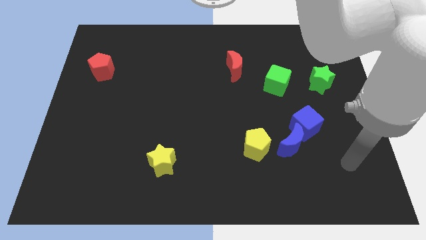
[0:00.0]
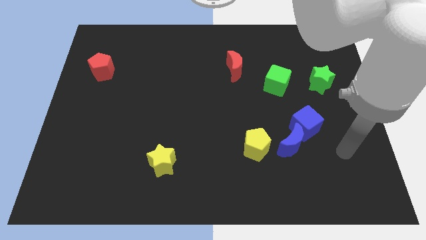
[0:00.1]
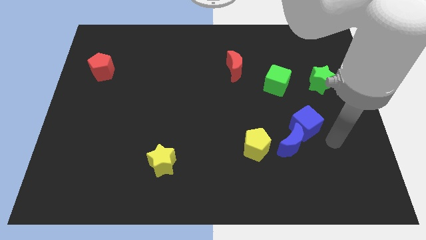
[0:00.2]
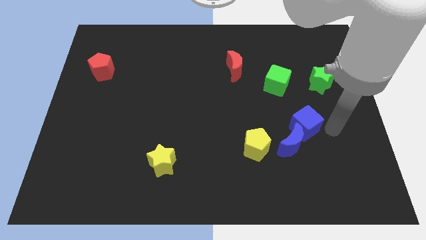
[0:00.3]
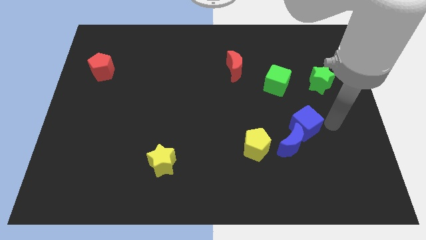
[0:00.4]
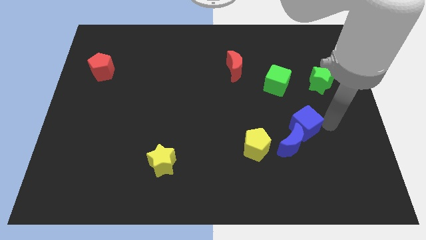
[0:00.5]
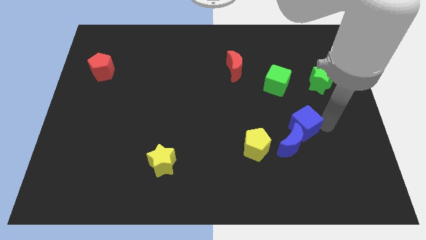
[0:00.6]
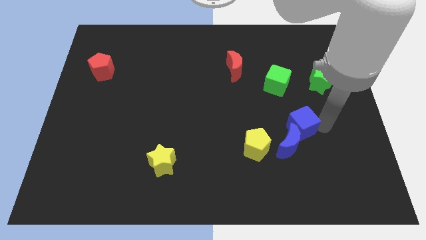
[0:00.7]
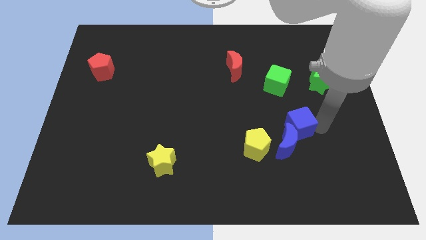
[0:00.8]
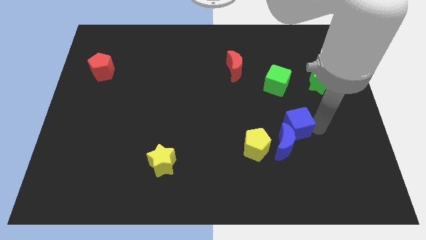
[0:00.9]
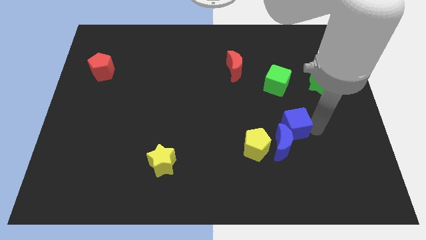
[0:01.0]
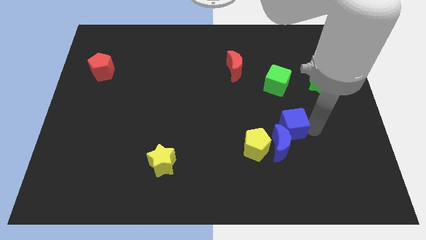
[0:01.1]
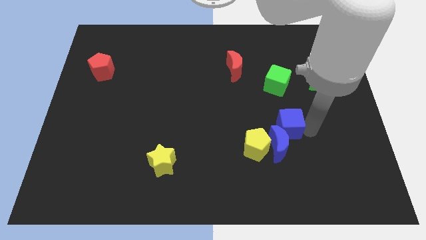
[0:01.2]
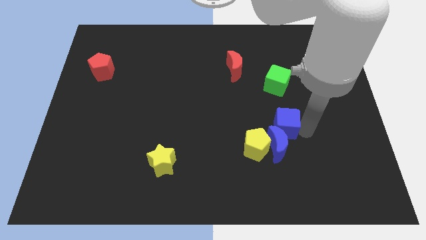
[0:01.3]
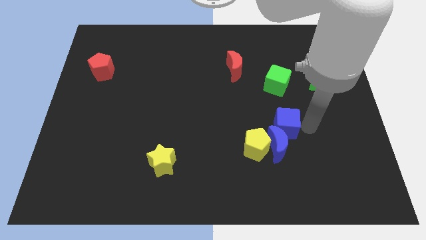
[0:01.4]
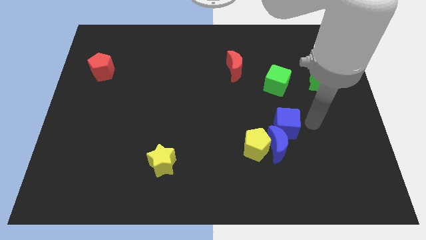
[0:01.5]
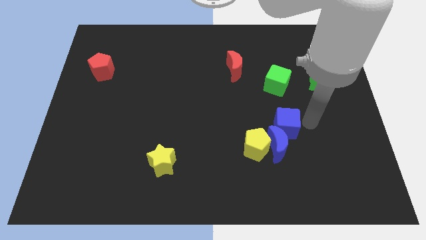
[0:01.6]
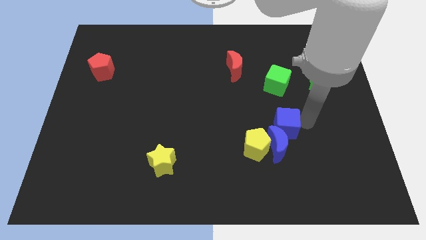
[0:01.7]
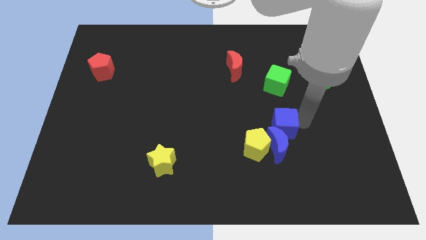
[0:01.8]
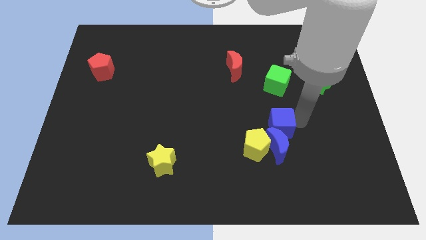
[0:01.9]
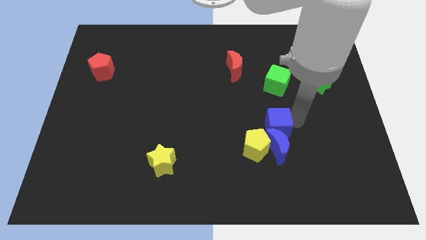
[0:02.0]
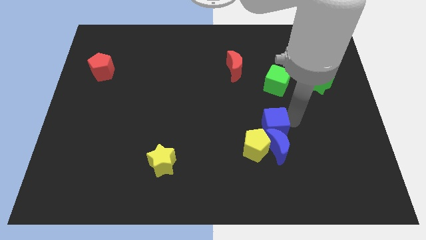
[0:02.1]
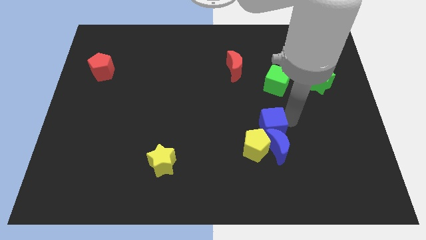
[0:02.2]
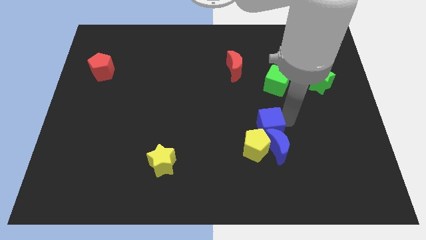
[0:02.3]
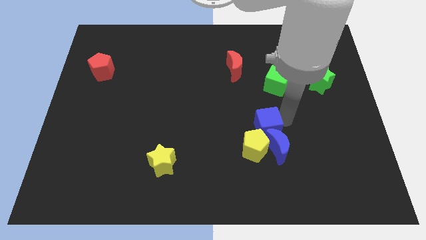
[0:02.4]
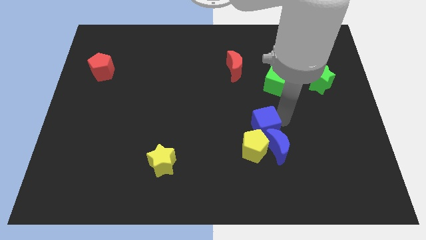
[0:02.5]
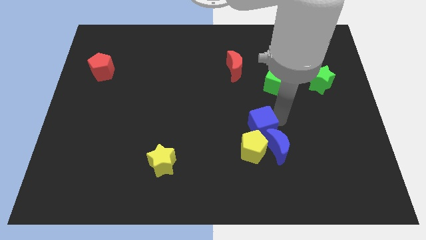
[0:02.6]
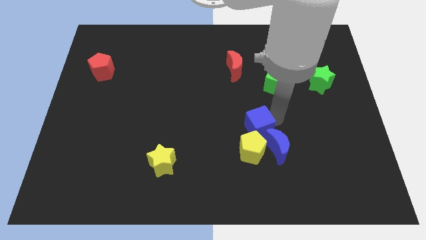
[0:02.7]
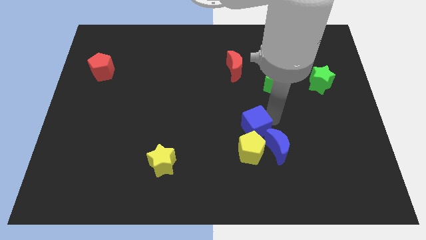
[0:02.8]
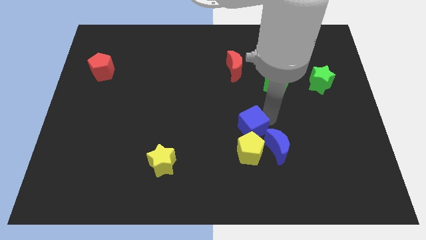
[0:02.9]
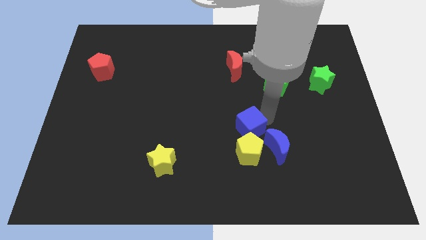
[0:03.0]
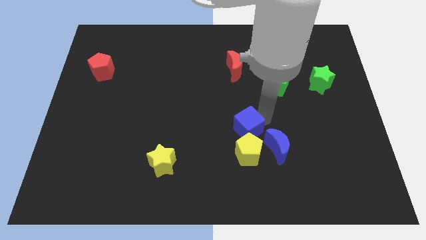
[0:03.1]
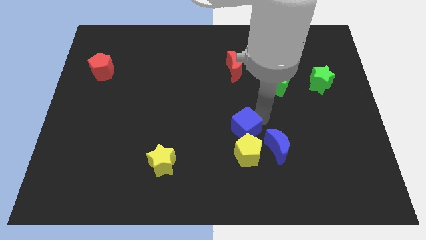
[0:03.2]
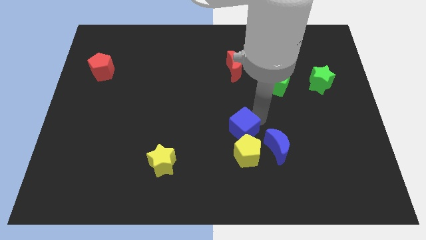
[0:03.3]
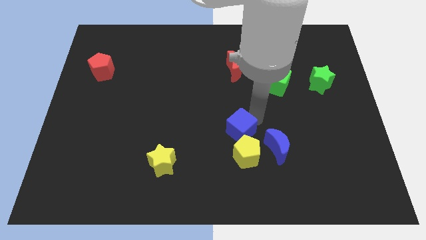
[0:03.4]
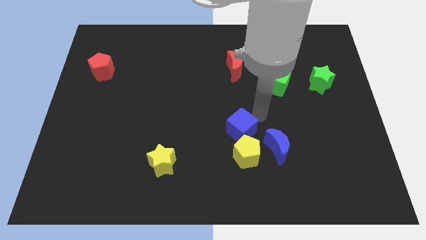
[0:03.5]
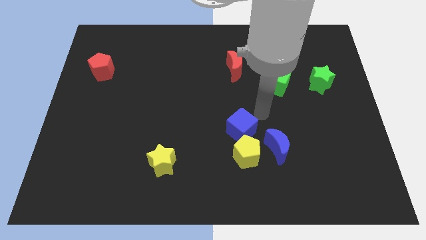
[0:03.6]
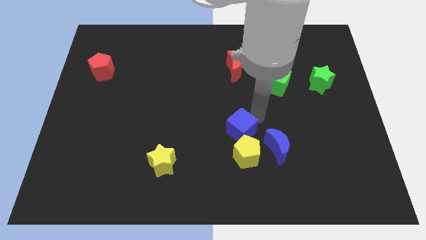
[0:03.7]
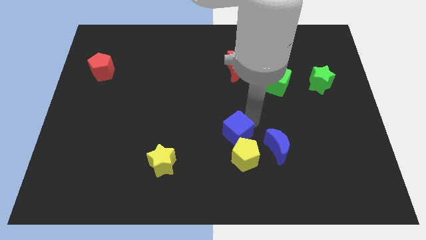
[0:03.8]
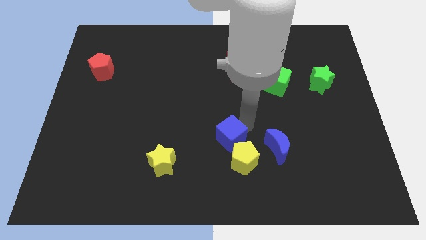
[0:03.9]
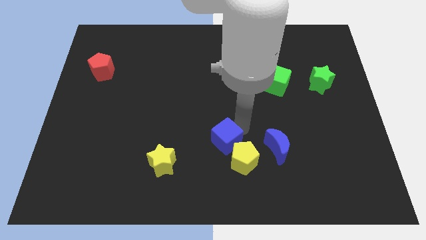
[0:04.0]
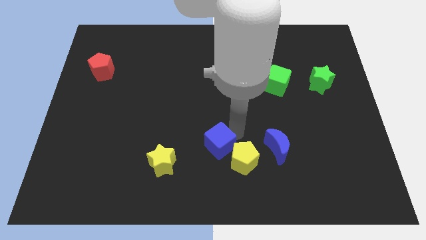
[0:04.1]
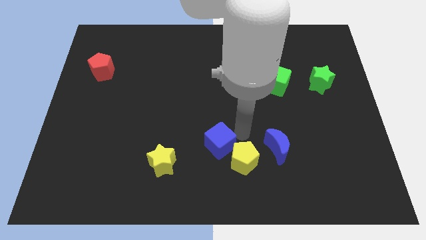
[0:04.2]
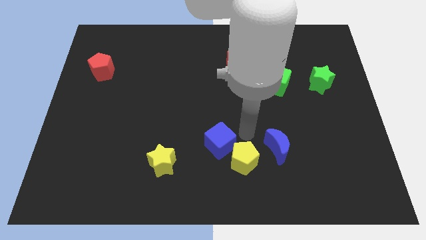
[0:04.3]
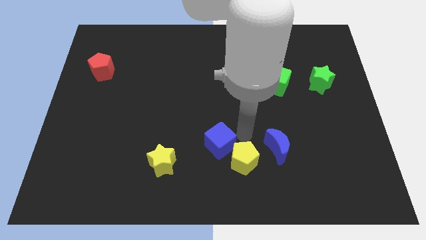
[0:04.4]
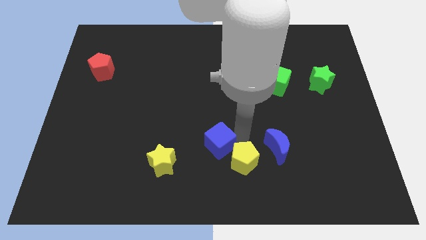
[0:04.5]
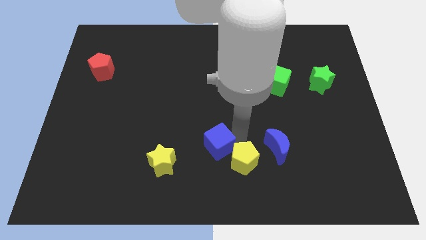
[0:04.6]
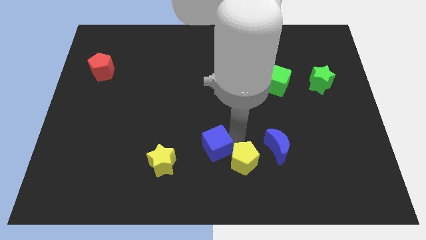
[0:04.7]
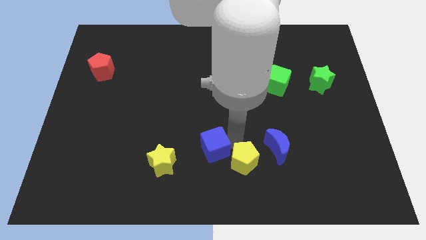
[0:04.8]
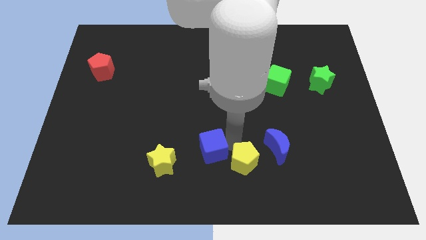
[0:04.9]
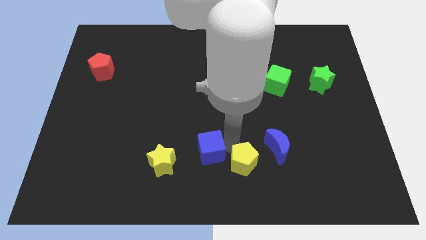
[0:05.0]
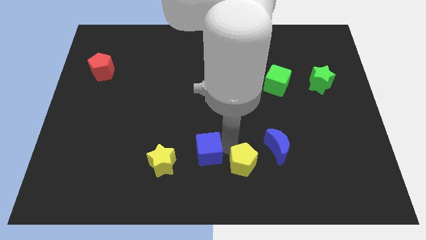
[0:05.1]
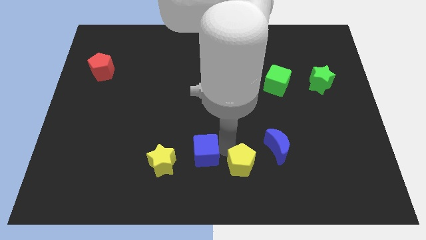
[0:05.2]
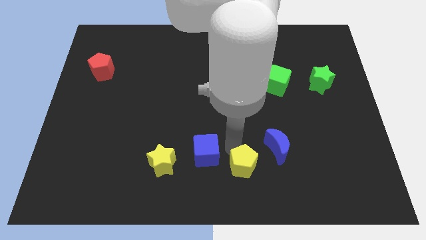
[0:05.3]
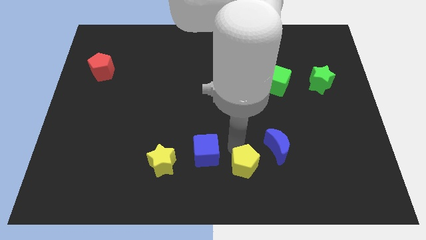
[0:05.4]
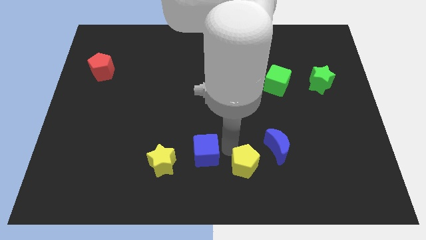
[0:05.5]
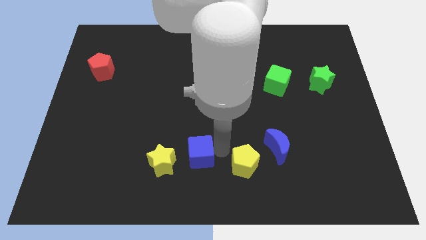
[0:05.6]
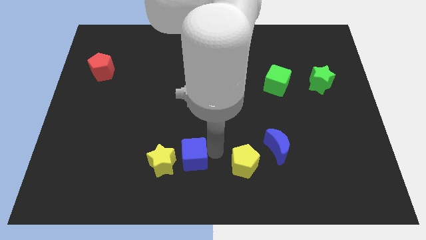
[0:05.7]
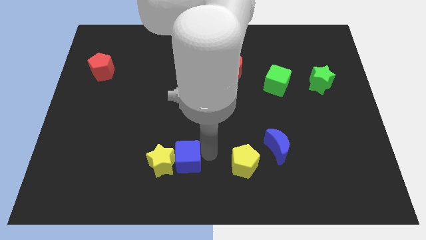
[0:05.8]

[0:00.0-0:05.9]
slide the blue cube towards the yellow star

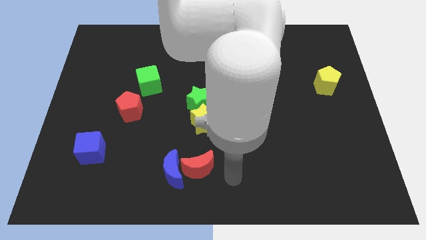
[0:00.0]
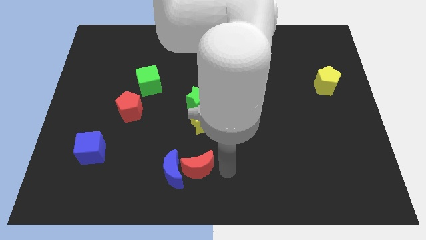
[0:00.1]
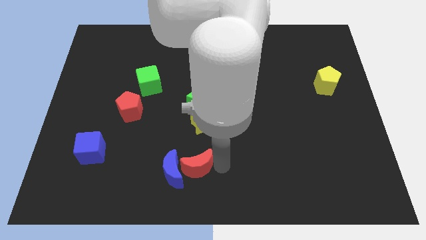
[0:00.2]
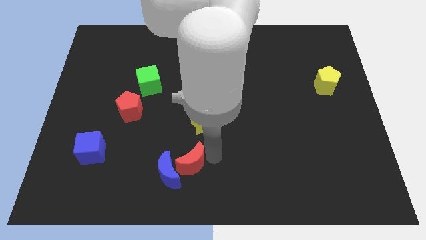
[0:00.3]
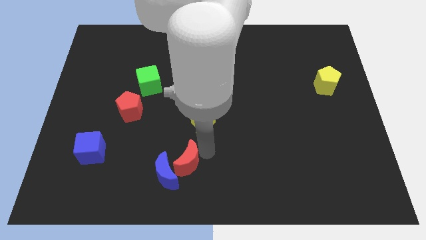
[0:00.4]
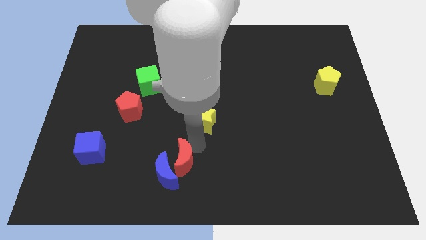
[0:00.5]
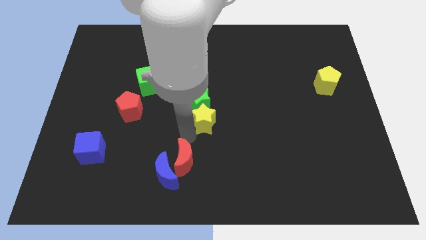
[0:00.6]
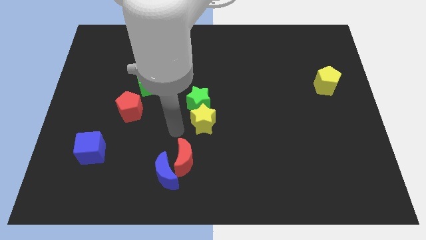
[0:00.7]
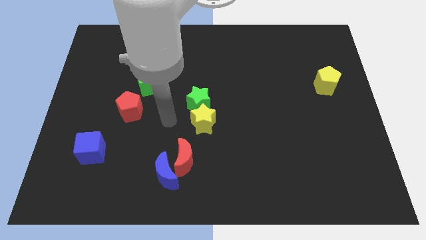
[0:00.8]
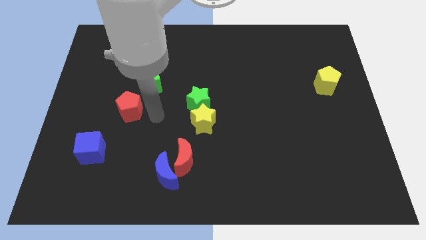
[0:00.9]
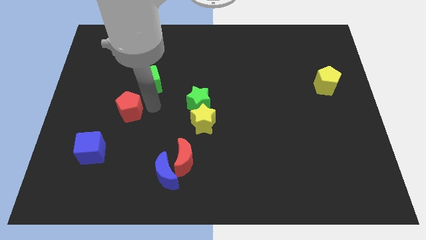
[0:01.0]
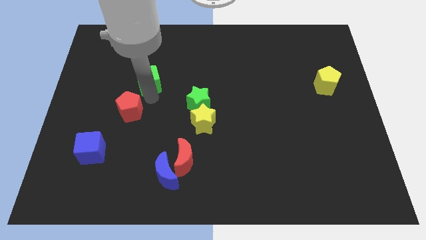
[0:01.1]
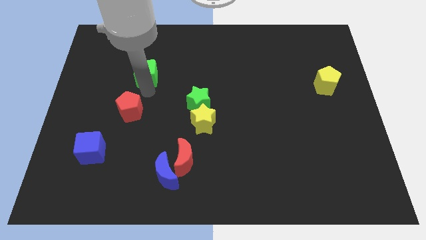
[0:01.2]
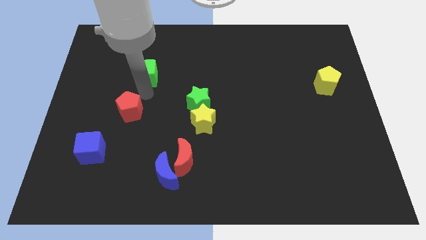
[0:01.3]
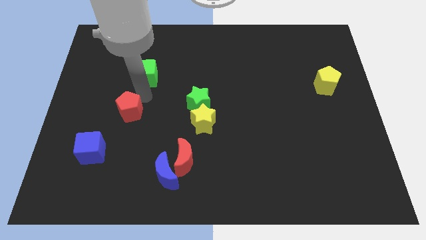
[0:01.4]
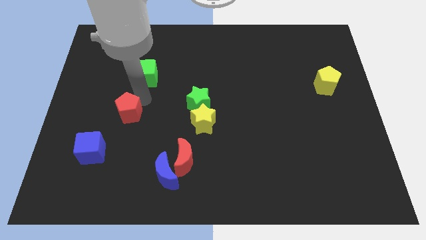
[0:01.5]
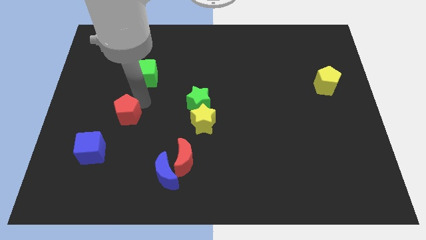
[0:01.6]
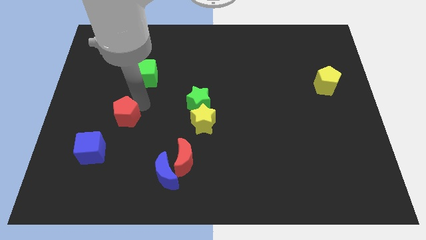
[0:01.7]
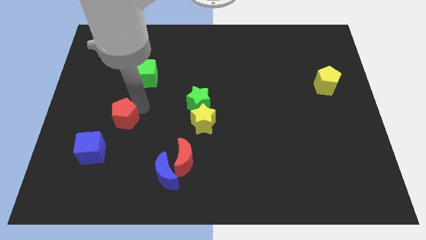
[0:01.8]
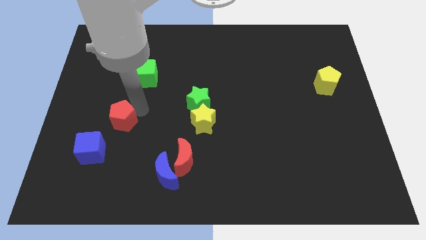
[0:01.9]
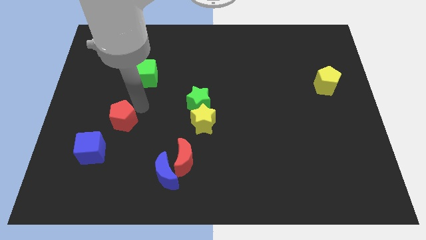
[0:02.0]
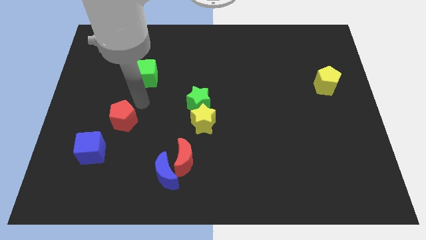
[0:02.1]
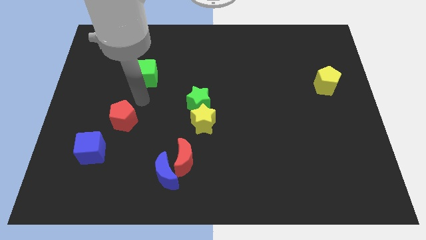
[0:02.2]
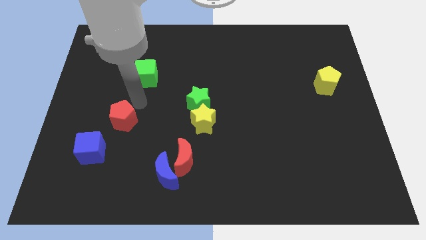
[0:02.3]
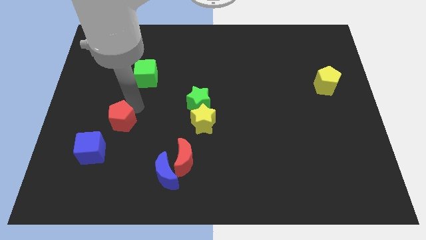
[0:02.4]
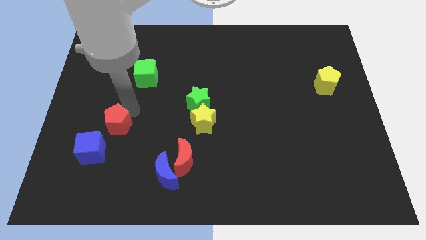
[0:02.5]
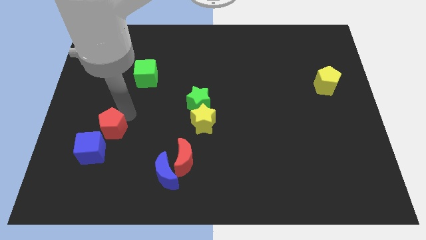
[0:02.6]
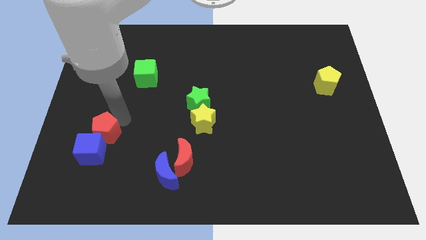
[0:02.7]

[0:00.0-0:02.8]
put the red pentagon close to the blue cube
